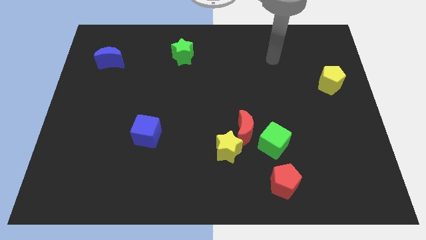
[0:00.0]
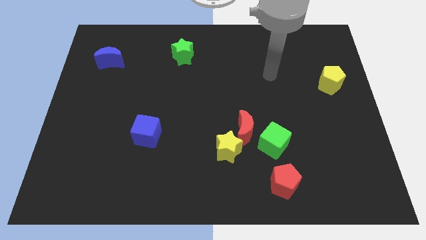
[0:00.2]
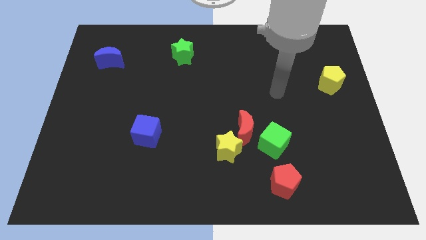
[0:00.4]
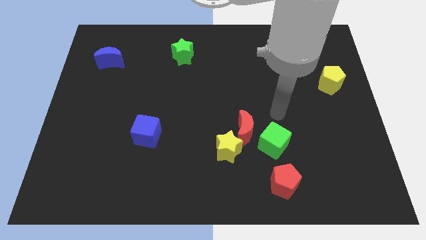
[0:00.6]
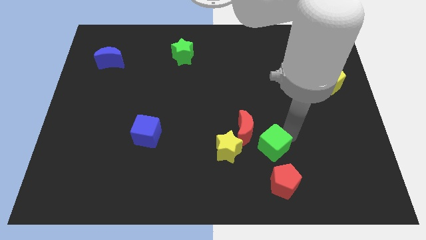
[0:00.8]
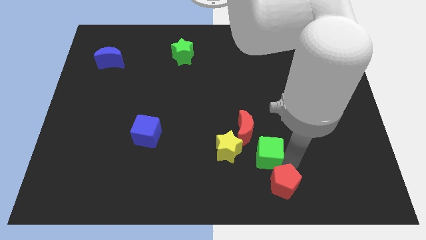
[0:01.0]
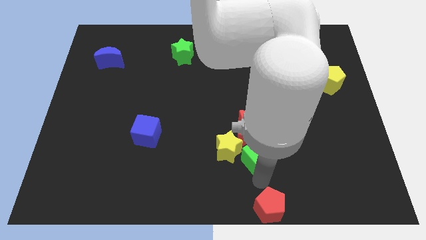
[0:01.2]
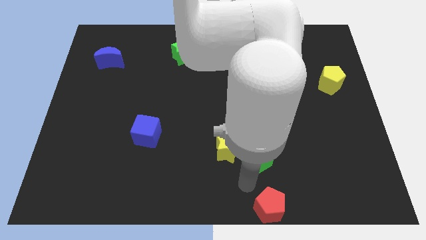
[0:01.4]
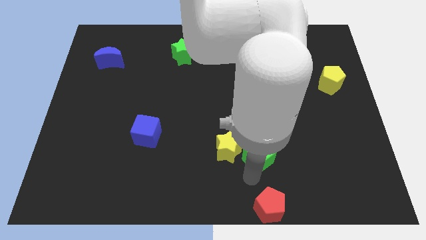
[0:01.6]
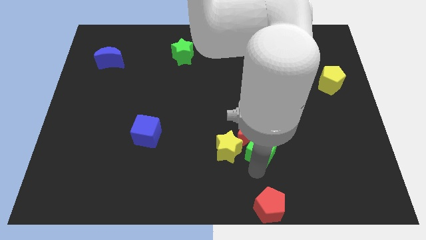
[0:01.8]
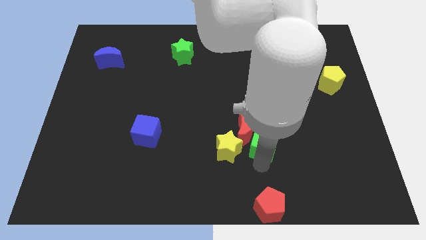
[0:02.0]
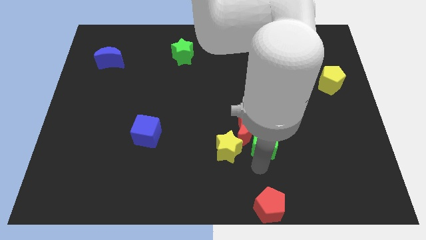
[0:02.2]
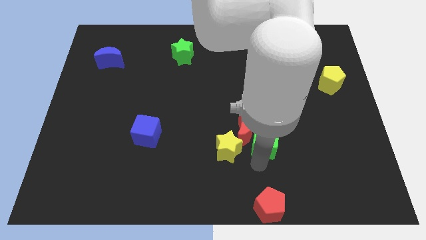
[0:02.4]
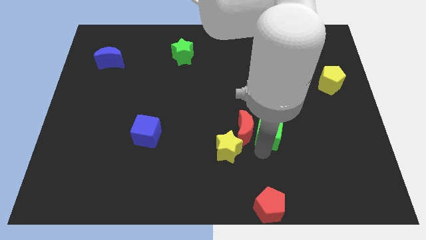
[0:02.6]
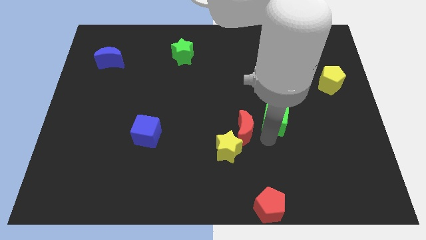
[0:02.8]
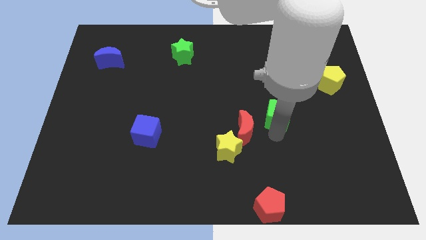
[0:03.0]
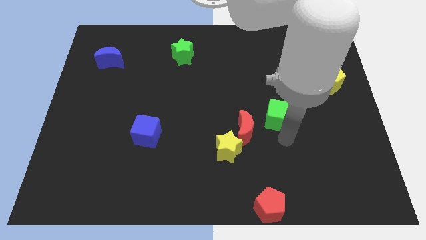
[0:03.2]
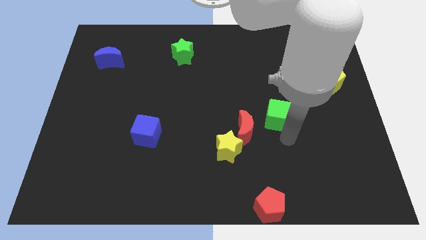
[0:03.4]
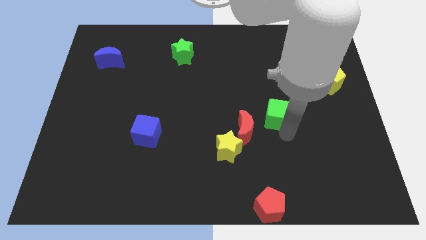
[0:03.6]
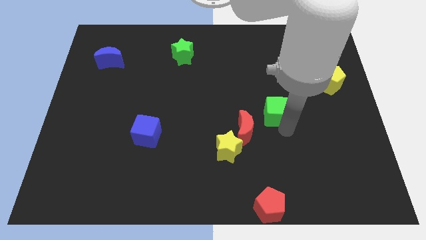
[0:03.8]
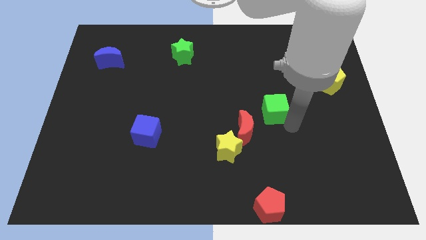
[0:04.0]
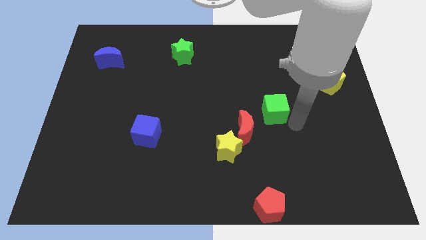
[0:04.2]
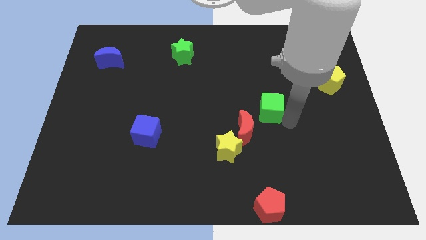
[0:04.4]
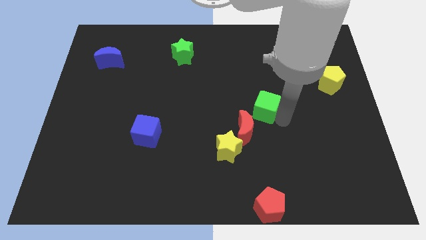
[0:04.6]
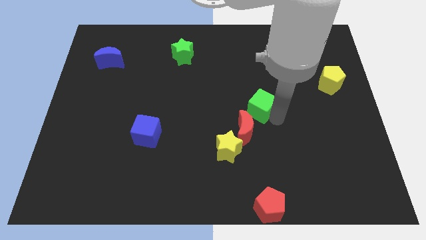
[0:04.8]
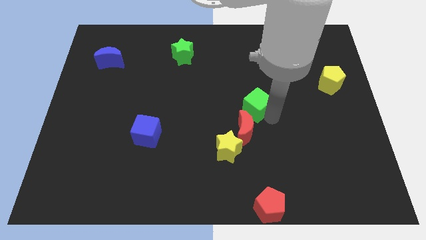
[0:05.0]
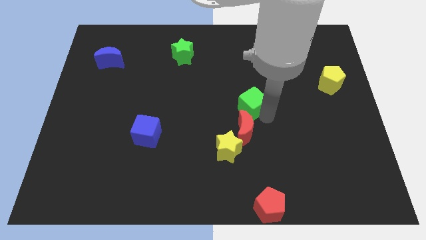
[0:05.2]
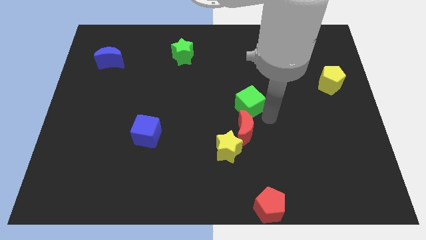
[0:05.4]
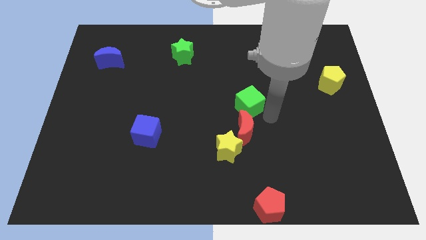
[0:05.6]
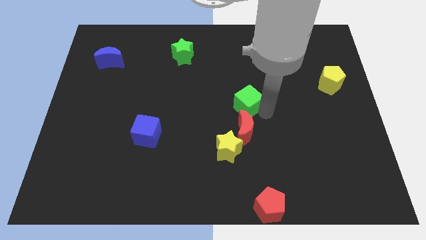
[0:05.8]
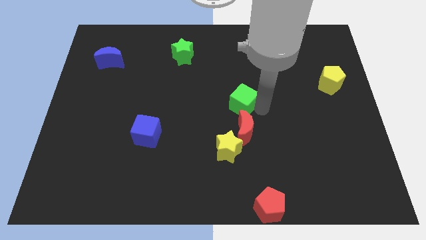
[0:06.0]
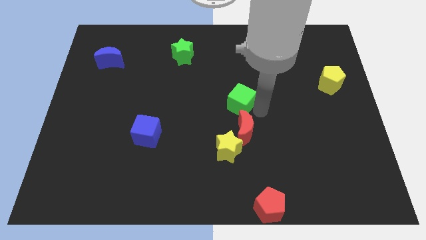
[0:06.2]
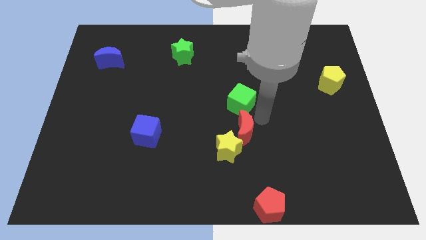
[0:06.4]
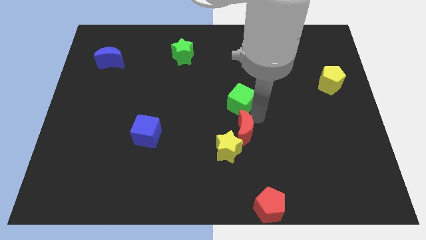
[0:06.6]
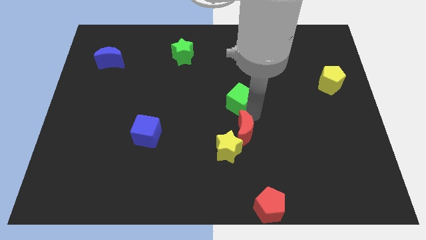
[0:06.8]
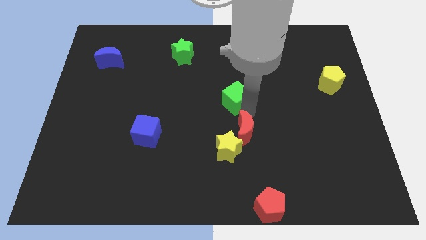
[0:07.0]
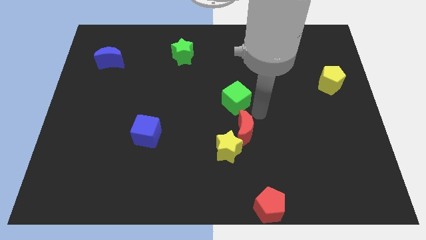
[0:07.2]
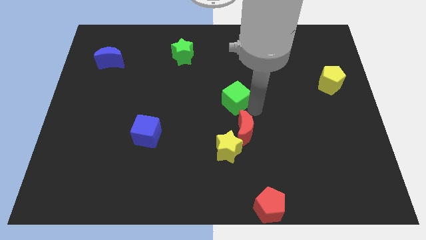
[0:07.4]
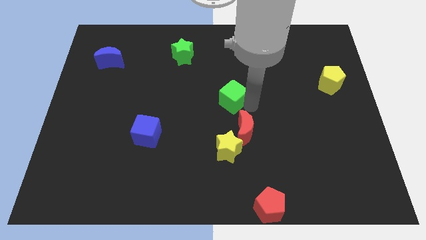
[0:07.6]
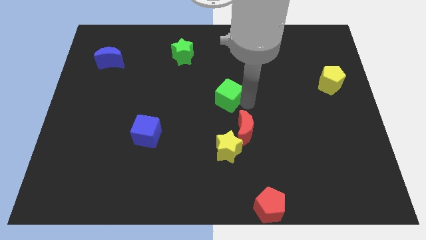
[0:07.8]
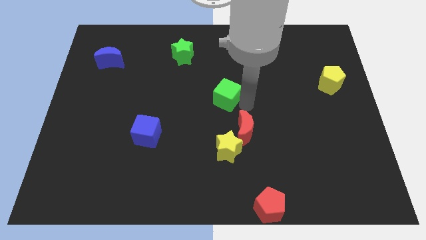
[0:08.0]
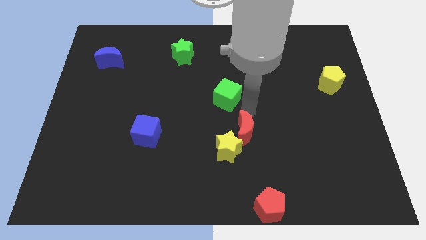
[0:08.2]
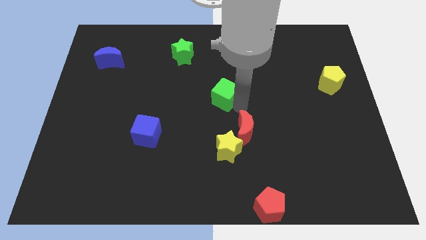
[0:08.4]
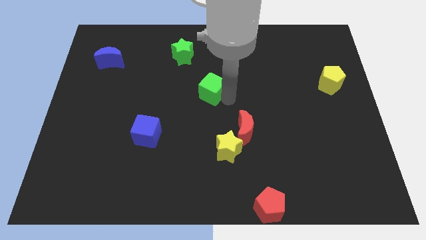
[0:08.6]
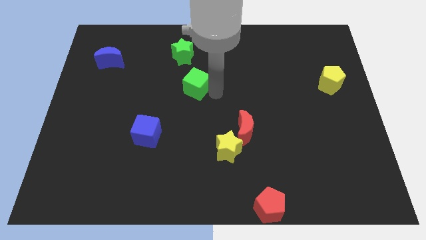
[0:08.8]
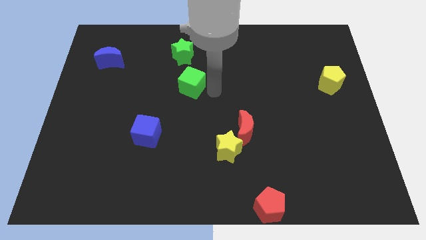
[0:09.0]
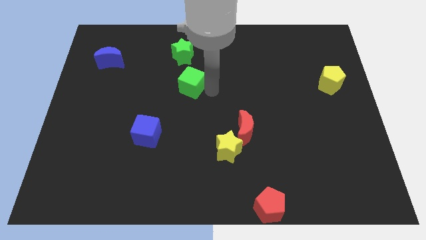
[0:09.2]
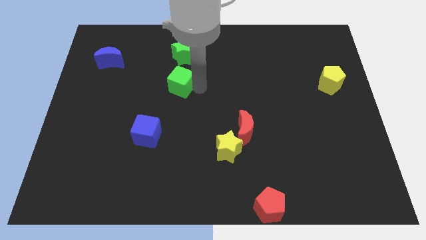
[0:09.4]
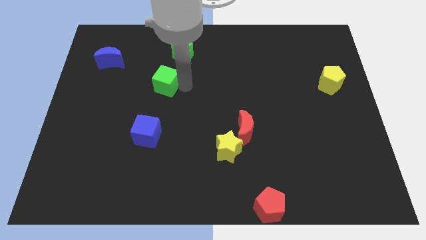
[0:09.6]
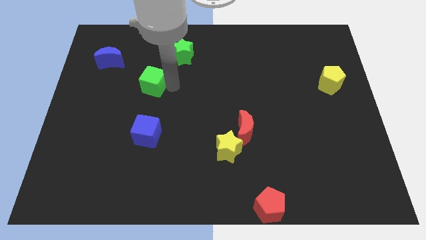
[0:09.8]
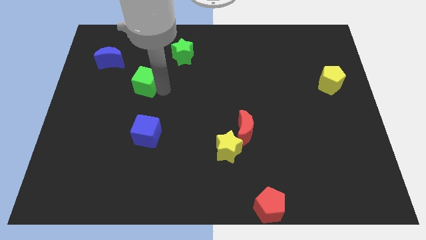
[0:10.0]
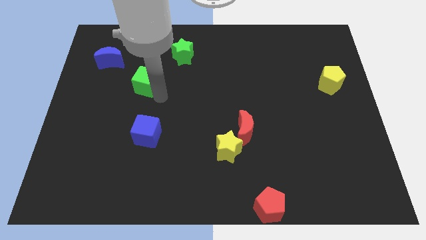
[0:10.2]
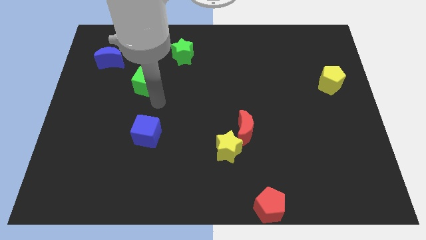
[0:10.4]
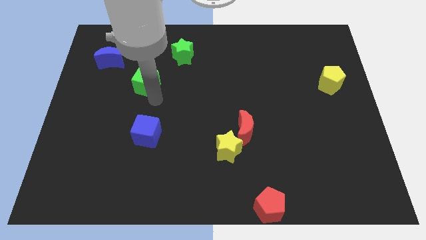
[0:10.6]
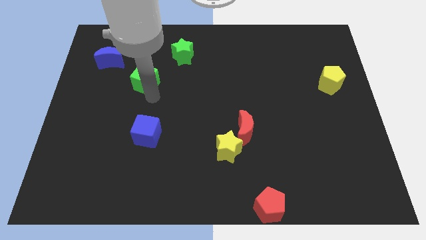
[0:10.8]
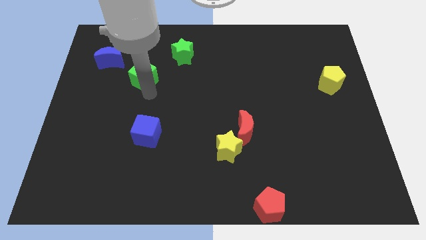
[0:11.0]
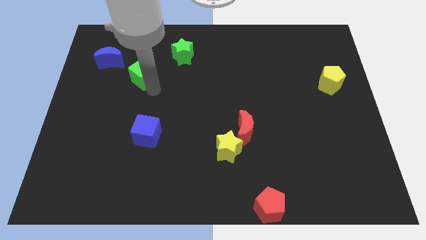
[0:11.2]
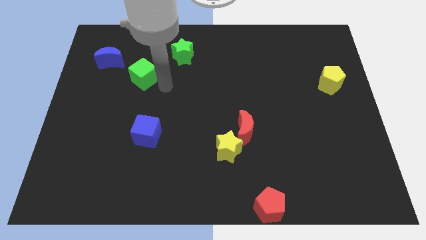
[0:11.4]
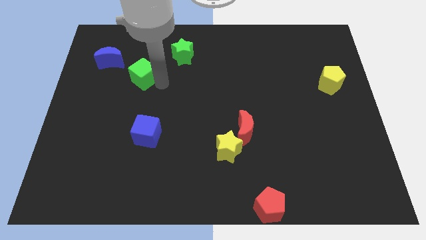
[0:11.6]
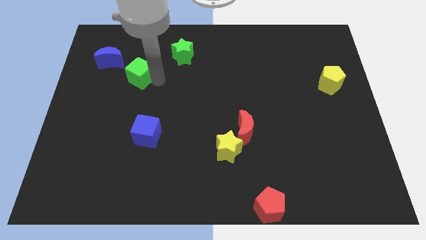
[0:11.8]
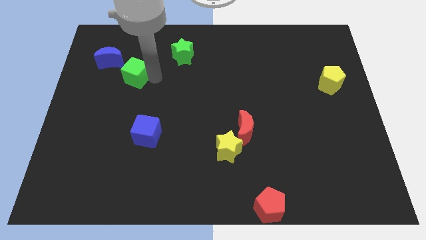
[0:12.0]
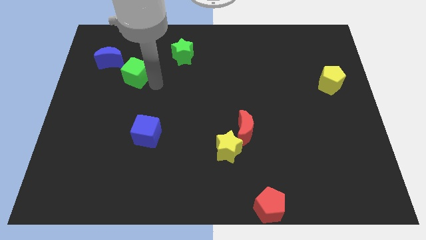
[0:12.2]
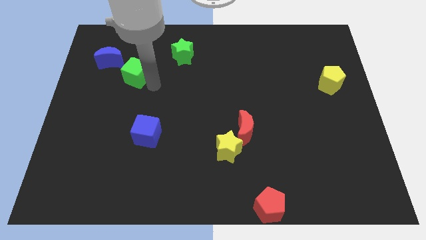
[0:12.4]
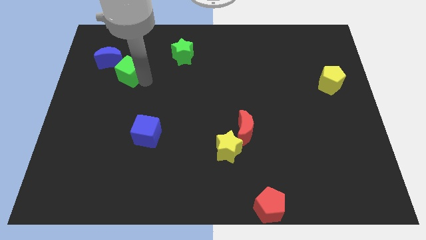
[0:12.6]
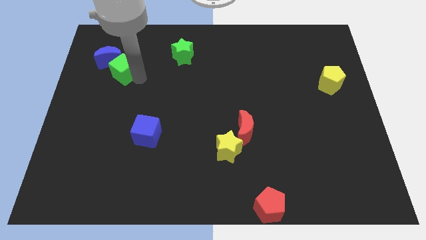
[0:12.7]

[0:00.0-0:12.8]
put the green cube close to the blue moon

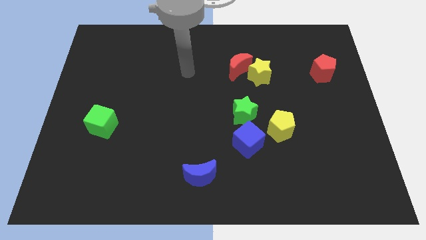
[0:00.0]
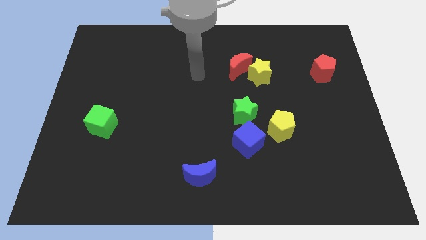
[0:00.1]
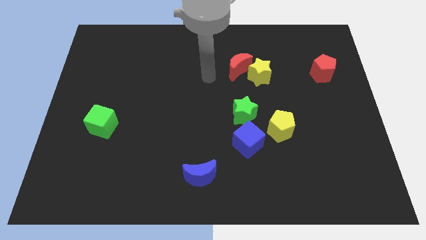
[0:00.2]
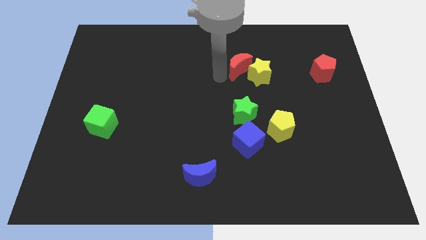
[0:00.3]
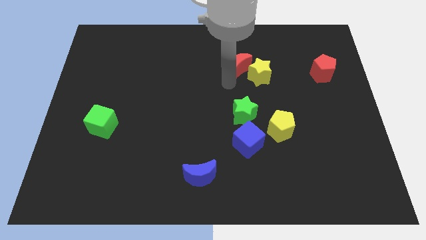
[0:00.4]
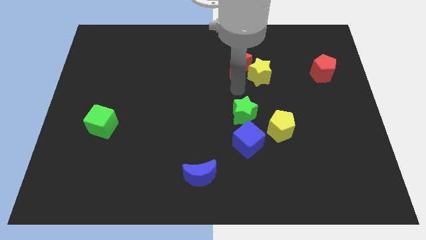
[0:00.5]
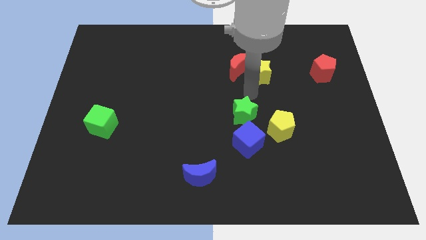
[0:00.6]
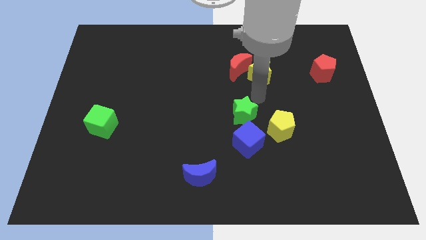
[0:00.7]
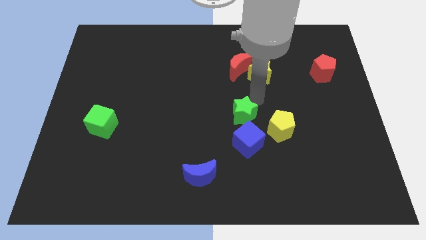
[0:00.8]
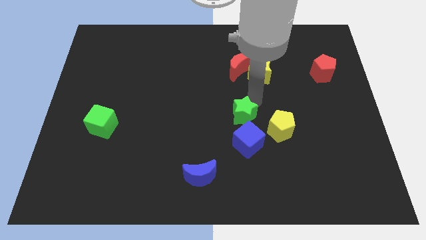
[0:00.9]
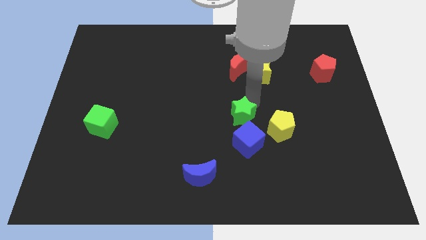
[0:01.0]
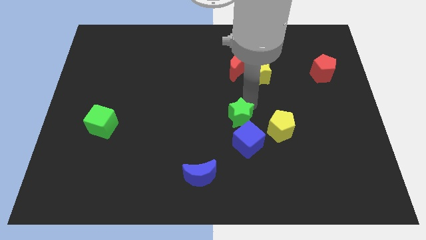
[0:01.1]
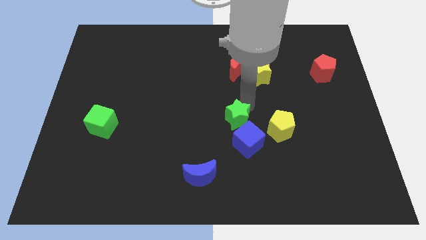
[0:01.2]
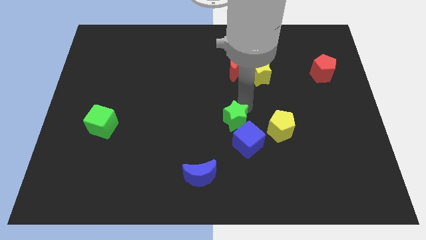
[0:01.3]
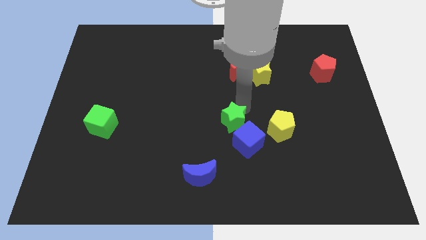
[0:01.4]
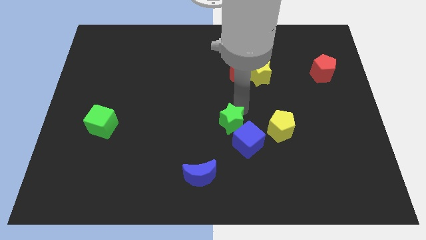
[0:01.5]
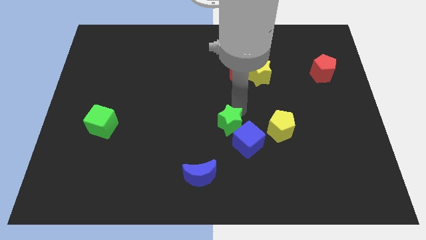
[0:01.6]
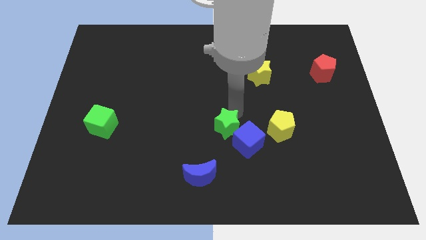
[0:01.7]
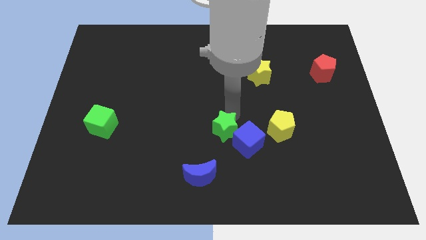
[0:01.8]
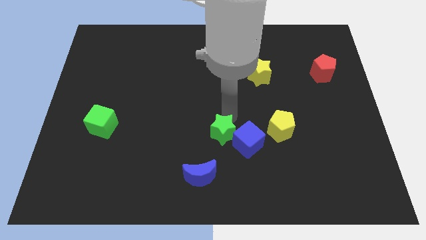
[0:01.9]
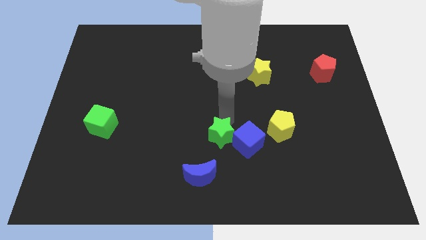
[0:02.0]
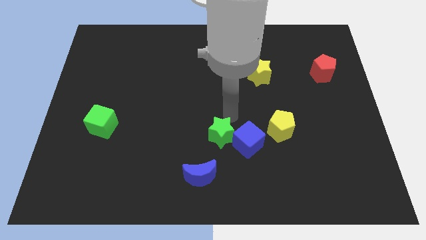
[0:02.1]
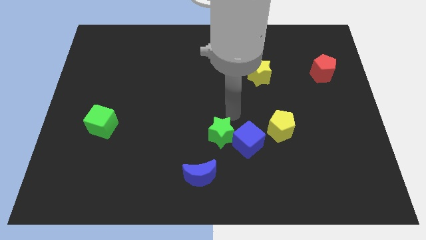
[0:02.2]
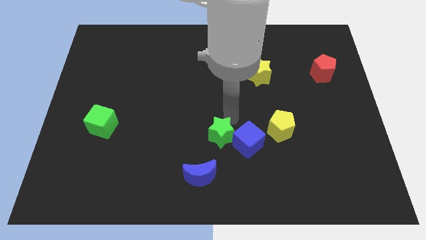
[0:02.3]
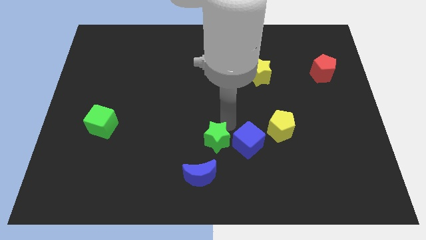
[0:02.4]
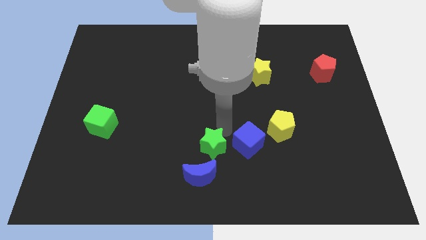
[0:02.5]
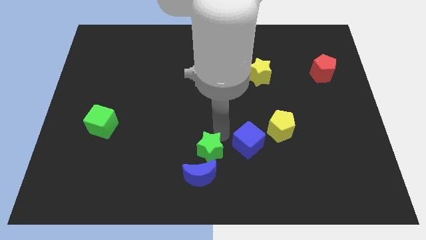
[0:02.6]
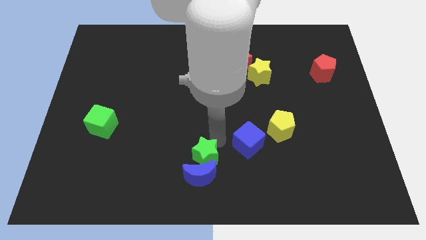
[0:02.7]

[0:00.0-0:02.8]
move the green star close to the blue moon
